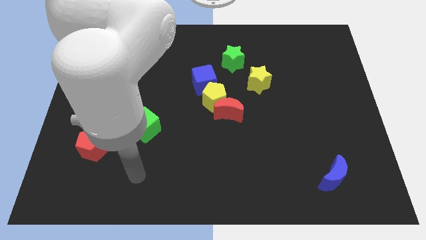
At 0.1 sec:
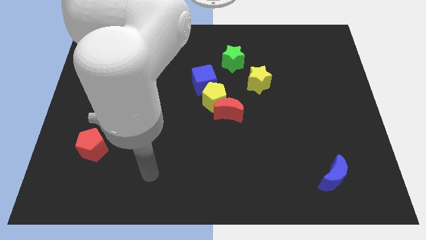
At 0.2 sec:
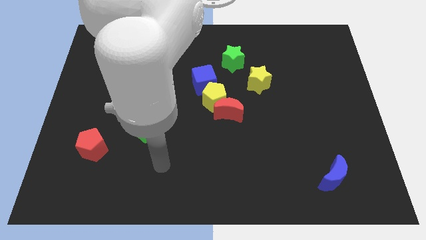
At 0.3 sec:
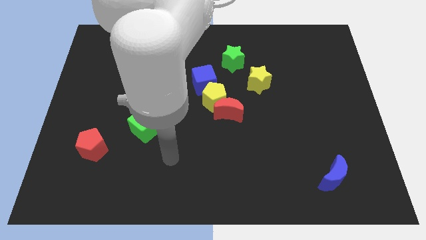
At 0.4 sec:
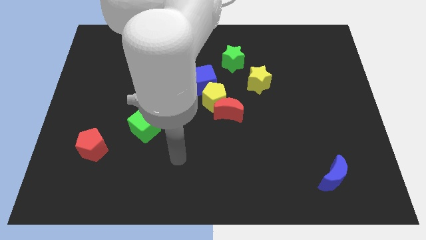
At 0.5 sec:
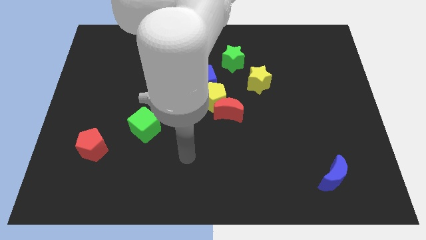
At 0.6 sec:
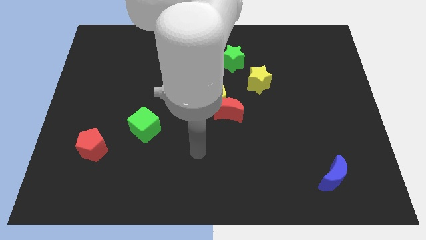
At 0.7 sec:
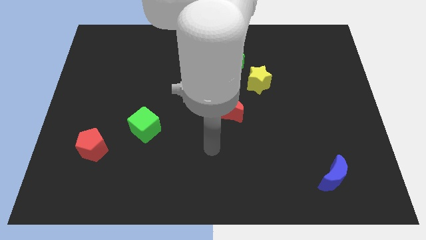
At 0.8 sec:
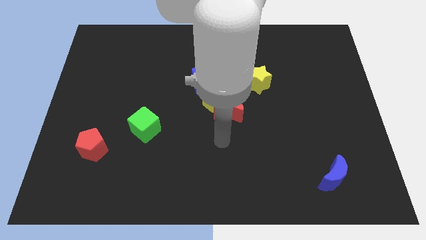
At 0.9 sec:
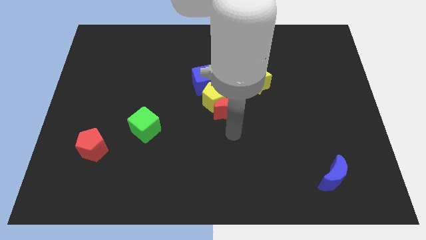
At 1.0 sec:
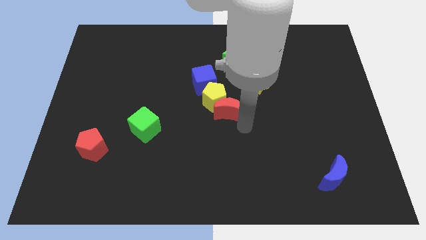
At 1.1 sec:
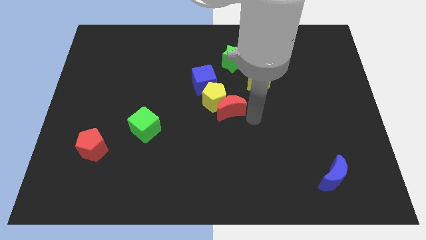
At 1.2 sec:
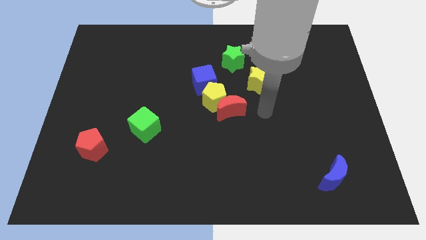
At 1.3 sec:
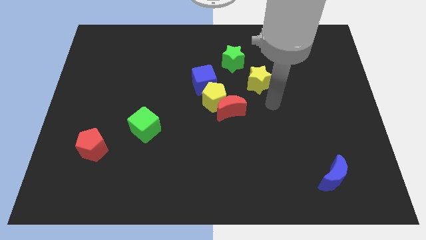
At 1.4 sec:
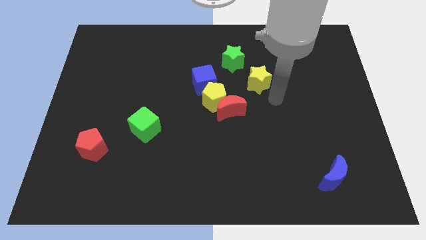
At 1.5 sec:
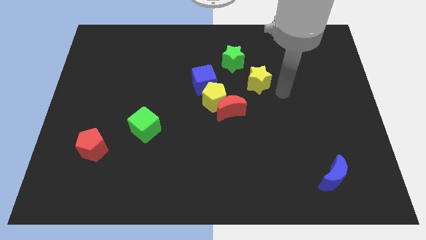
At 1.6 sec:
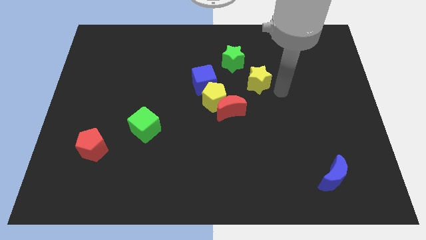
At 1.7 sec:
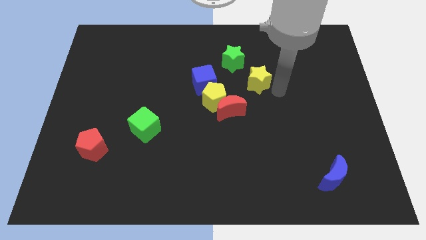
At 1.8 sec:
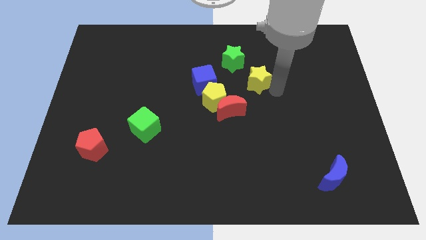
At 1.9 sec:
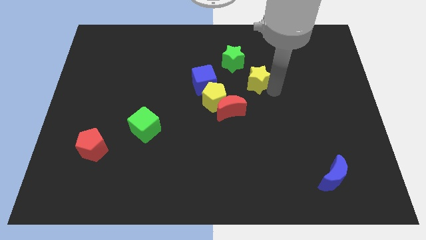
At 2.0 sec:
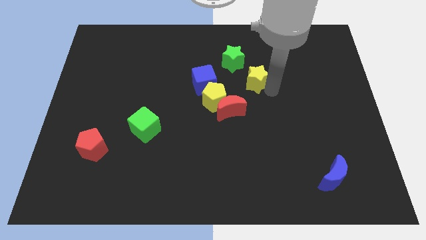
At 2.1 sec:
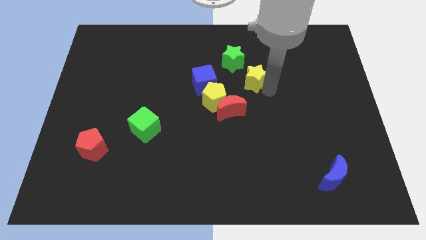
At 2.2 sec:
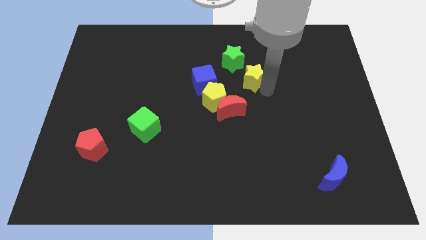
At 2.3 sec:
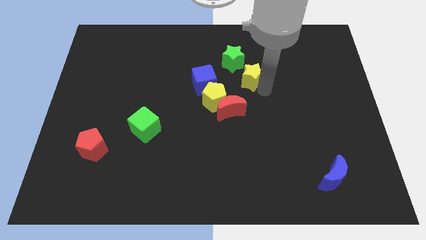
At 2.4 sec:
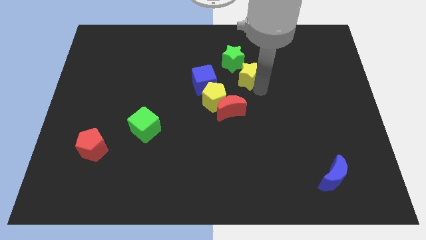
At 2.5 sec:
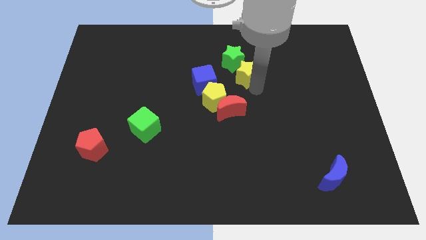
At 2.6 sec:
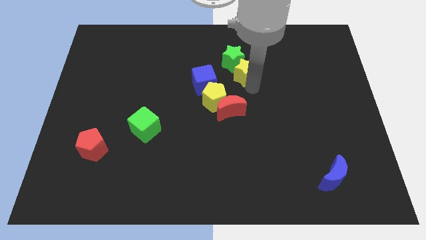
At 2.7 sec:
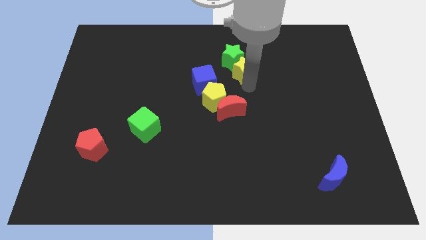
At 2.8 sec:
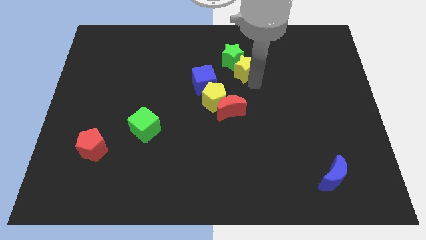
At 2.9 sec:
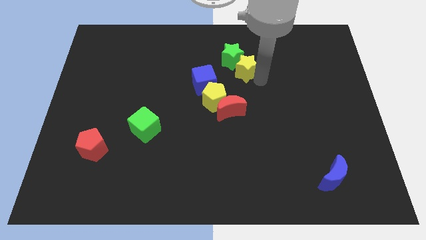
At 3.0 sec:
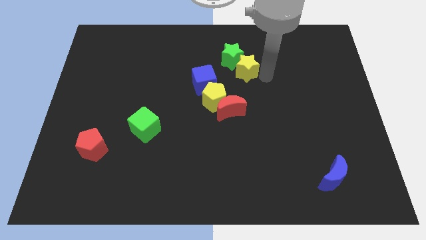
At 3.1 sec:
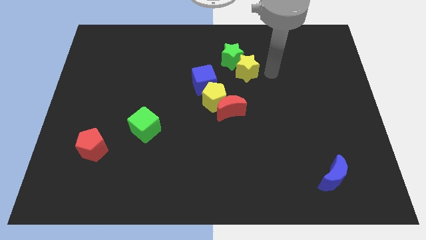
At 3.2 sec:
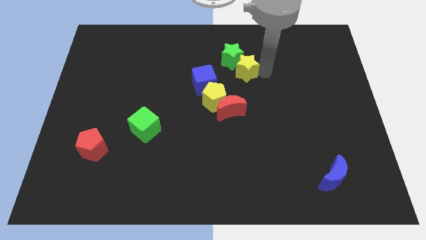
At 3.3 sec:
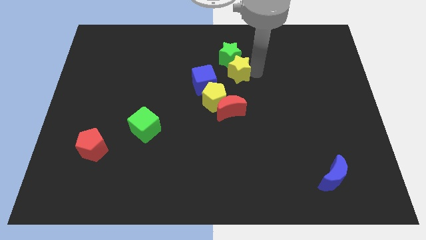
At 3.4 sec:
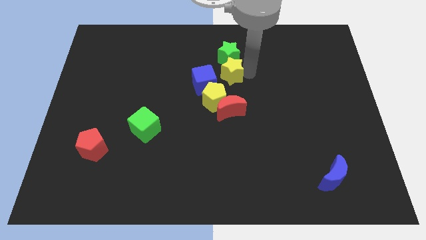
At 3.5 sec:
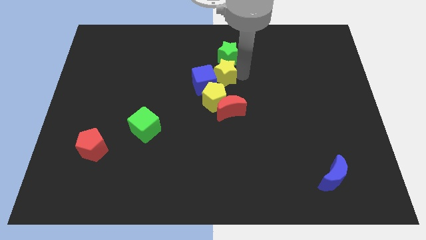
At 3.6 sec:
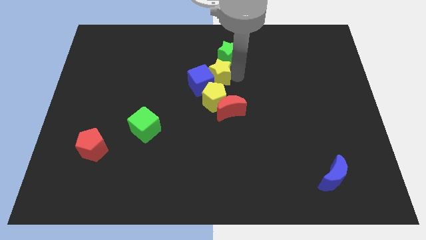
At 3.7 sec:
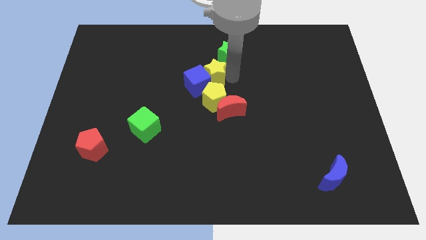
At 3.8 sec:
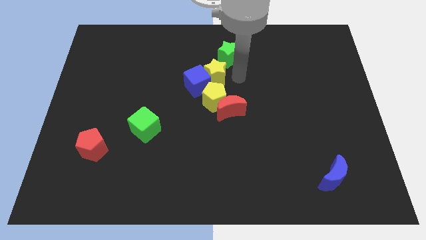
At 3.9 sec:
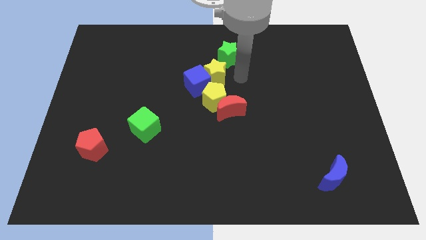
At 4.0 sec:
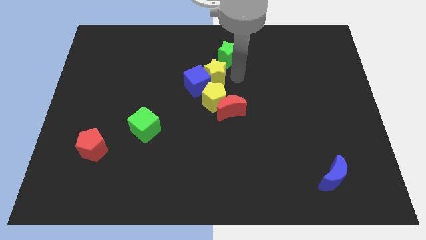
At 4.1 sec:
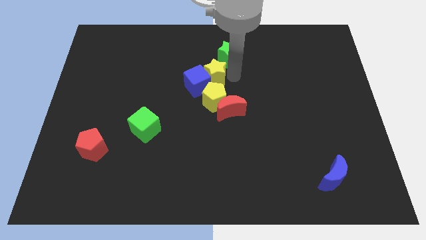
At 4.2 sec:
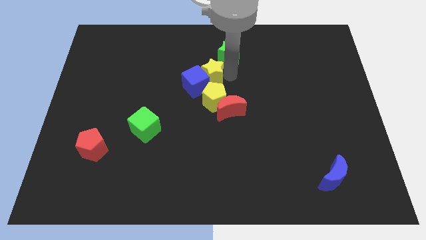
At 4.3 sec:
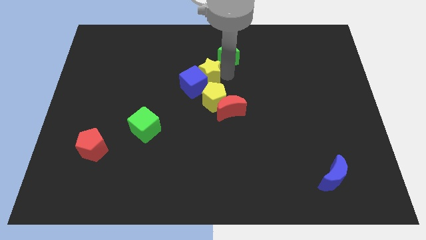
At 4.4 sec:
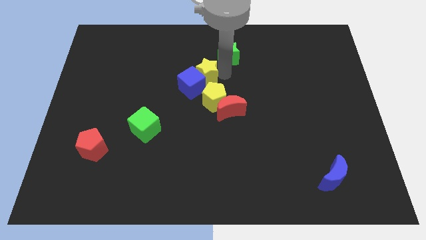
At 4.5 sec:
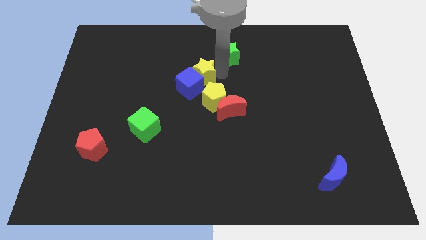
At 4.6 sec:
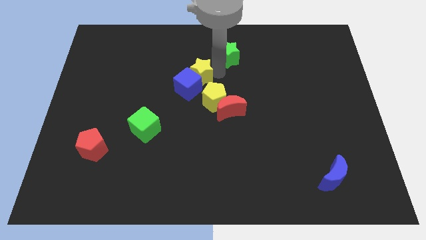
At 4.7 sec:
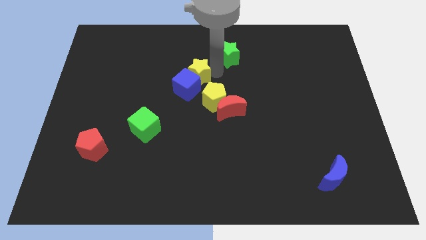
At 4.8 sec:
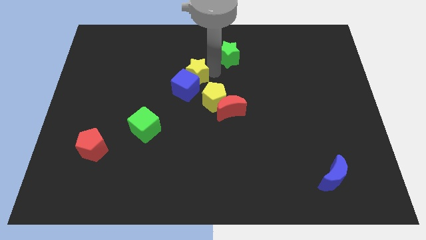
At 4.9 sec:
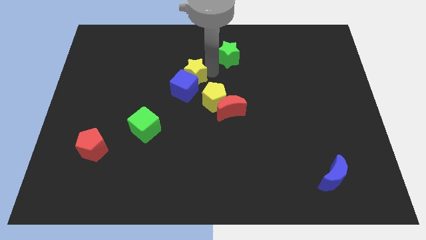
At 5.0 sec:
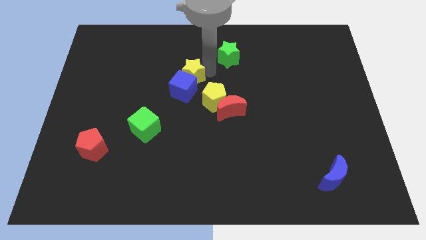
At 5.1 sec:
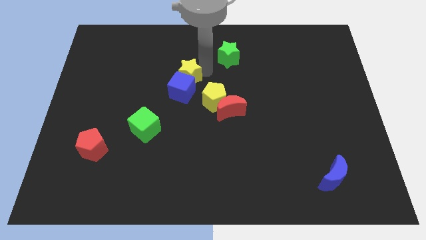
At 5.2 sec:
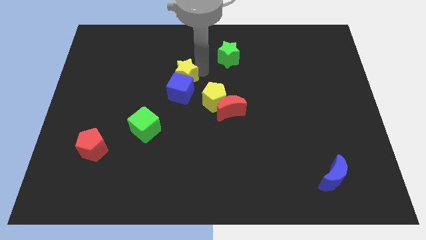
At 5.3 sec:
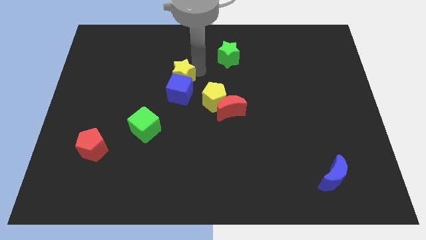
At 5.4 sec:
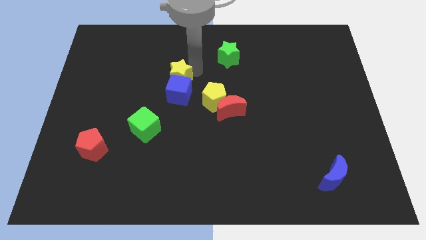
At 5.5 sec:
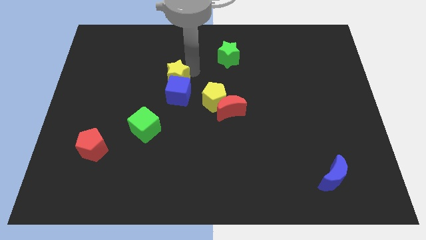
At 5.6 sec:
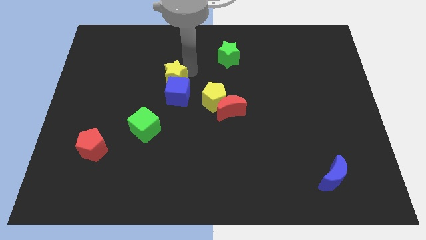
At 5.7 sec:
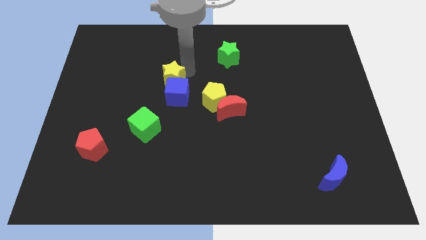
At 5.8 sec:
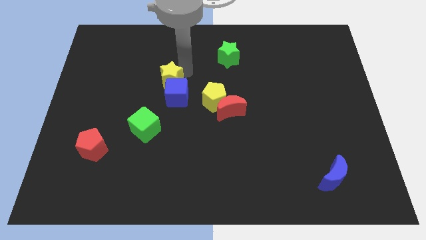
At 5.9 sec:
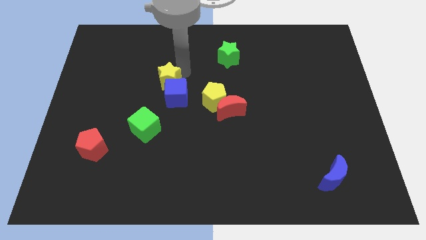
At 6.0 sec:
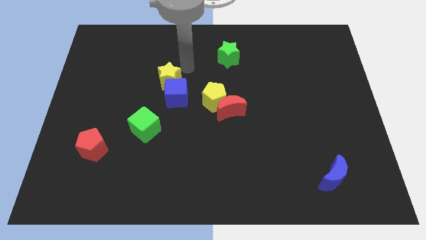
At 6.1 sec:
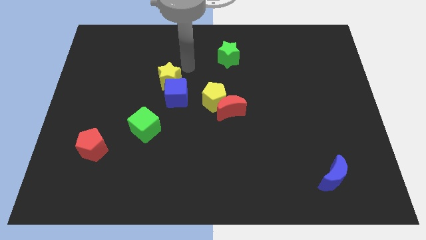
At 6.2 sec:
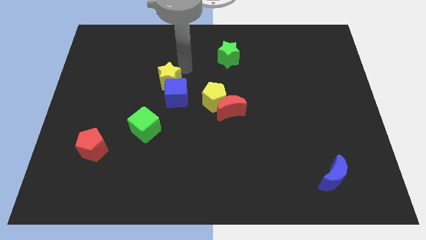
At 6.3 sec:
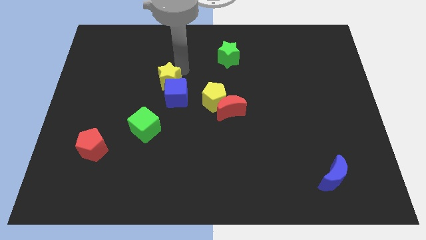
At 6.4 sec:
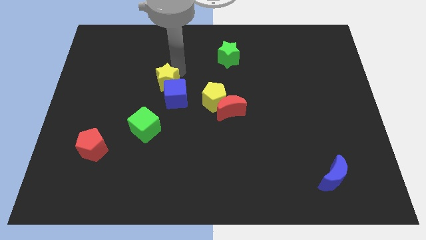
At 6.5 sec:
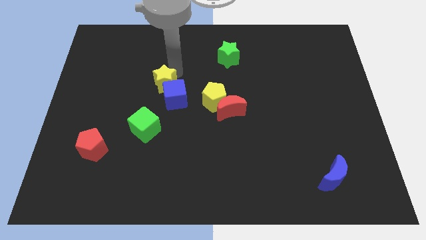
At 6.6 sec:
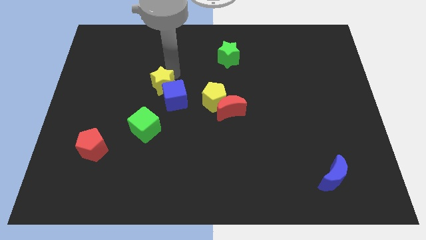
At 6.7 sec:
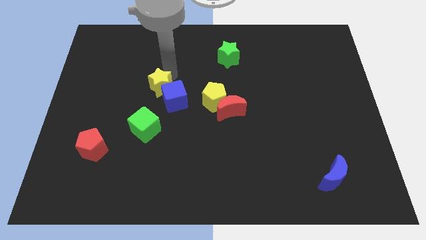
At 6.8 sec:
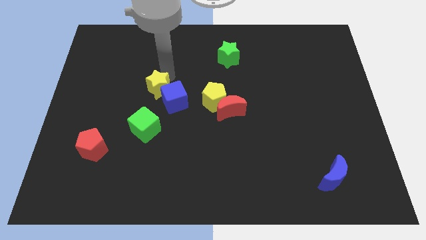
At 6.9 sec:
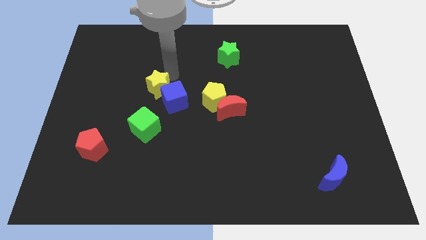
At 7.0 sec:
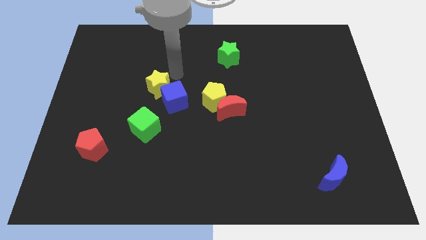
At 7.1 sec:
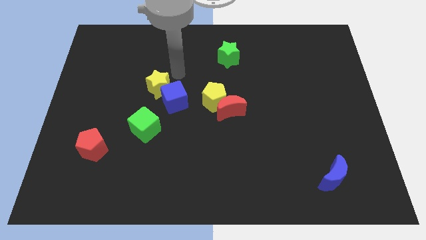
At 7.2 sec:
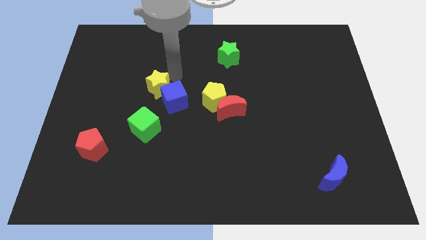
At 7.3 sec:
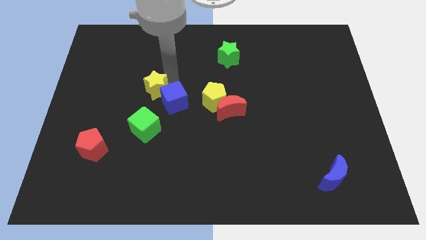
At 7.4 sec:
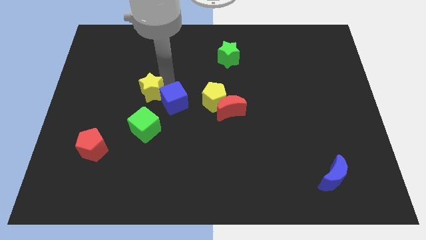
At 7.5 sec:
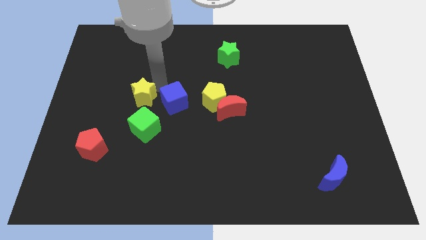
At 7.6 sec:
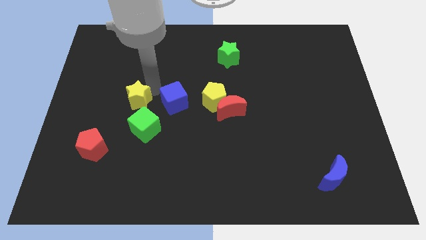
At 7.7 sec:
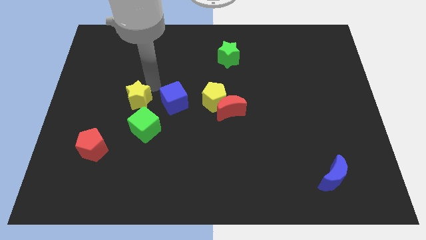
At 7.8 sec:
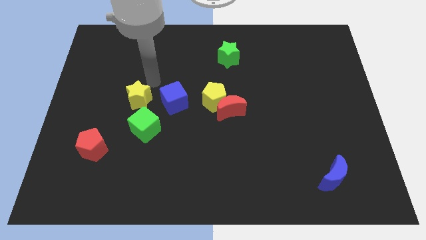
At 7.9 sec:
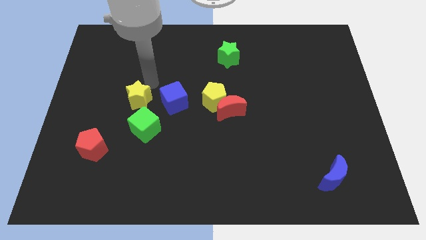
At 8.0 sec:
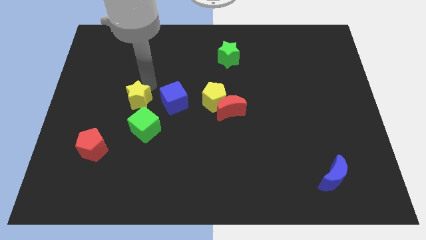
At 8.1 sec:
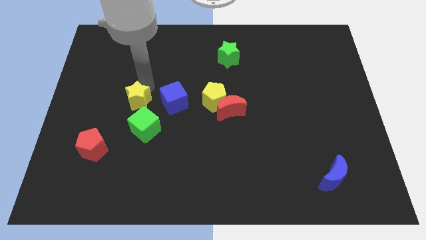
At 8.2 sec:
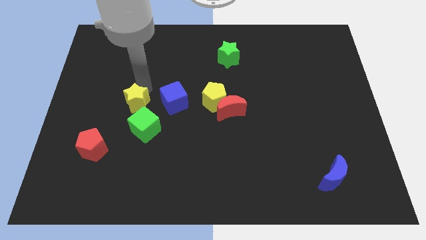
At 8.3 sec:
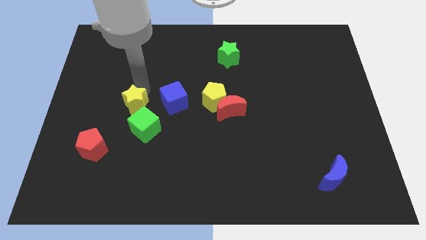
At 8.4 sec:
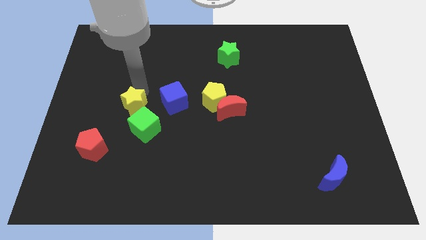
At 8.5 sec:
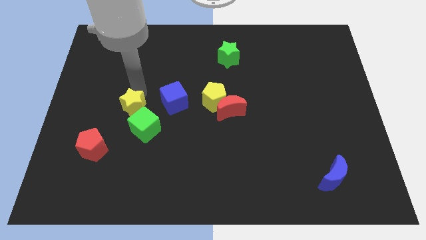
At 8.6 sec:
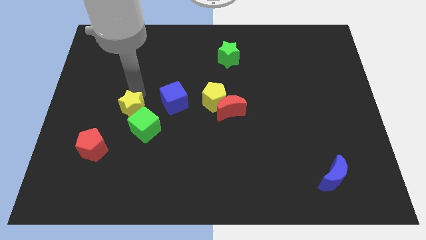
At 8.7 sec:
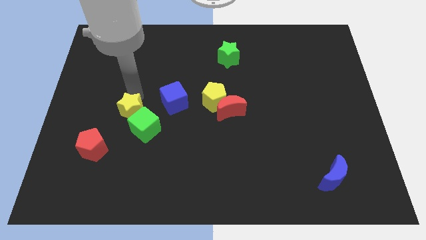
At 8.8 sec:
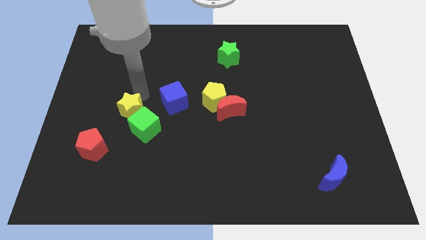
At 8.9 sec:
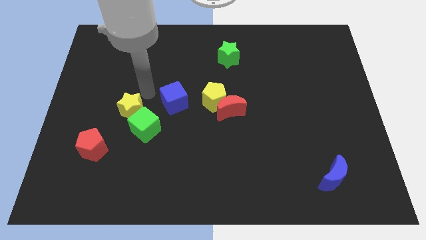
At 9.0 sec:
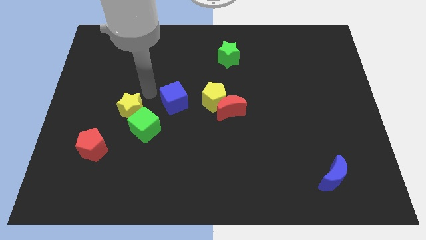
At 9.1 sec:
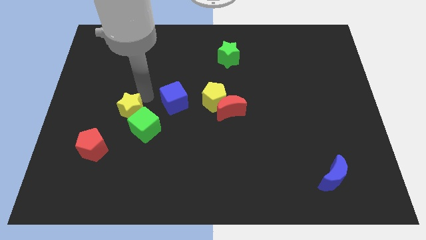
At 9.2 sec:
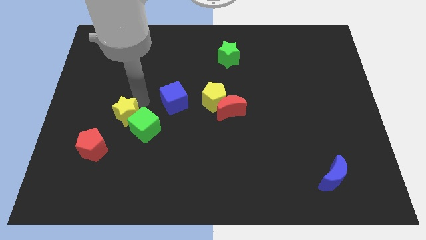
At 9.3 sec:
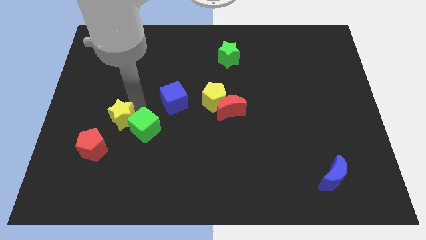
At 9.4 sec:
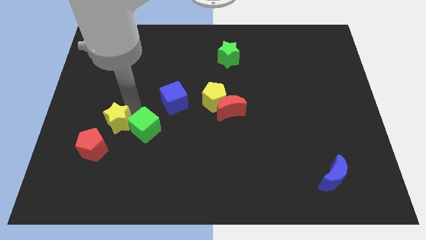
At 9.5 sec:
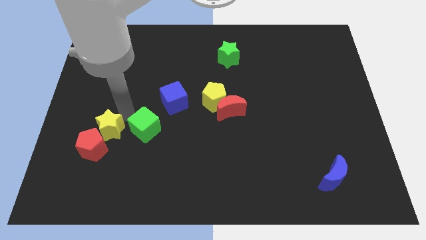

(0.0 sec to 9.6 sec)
move the yellow star towards the red pentagon
